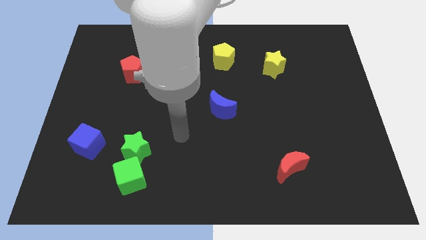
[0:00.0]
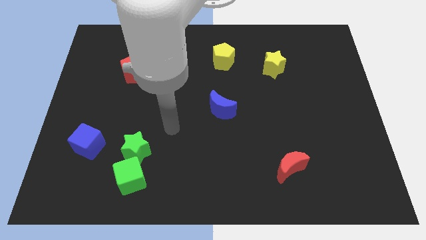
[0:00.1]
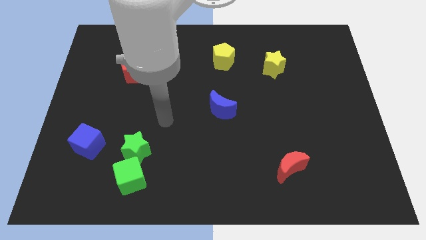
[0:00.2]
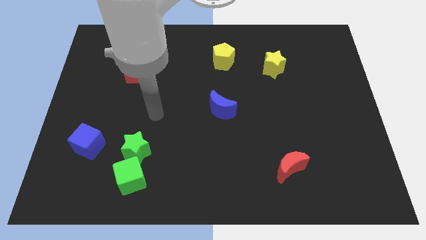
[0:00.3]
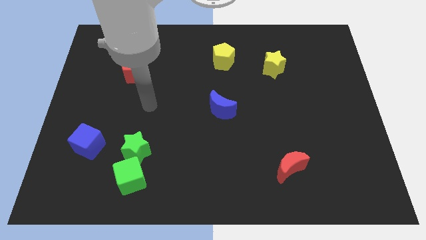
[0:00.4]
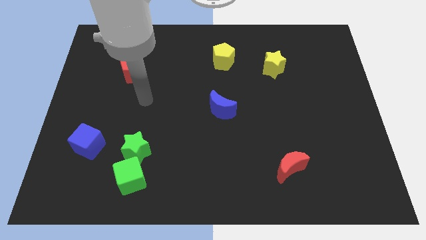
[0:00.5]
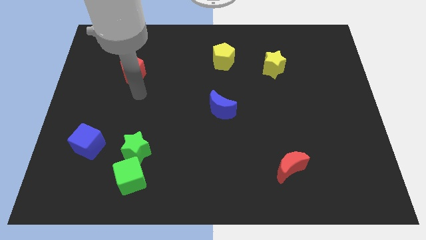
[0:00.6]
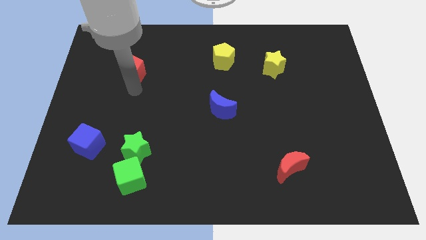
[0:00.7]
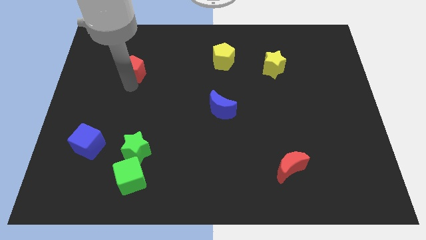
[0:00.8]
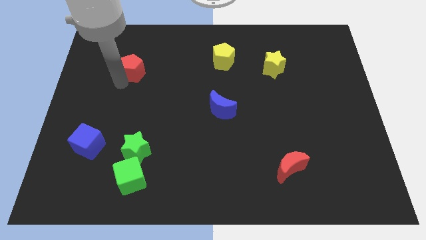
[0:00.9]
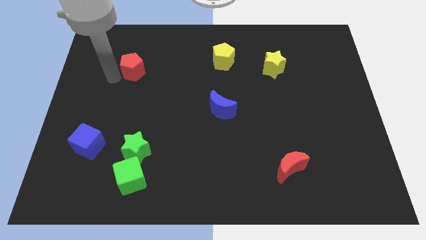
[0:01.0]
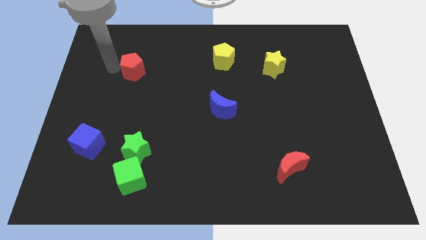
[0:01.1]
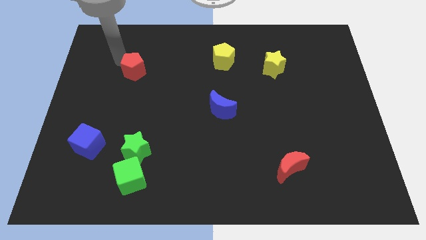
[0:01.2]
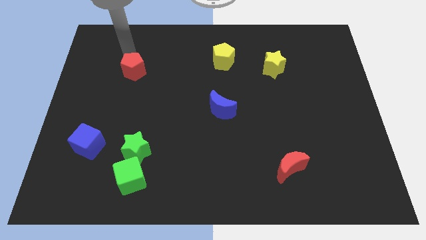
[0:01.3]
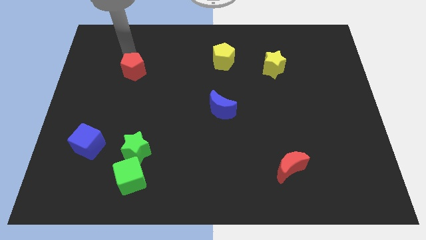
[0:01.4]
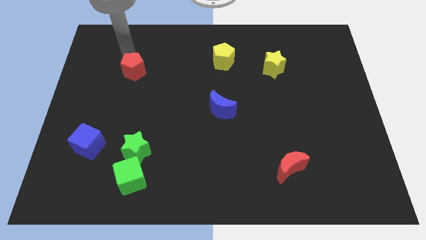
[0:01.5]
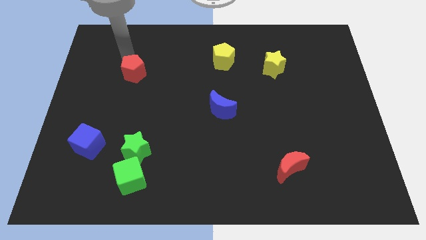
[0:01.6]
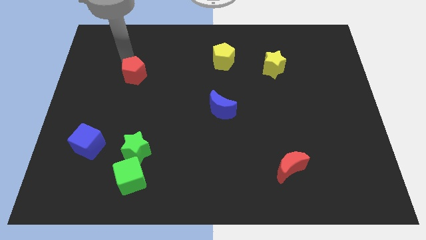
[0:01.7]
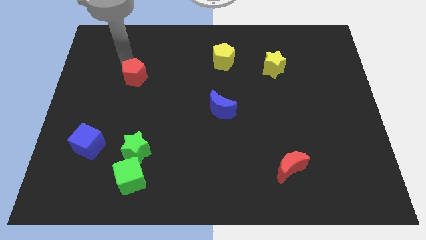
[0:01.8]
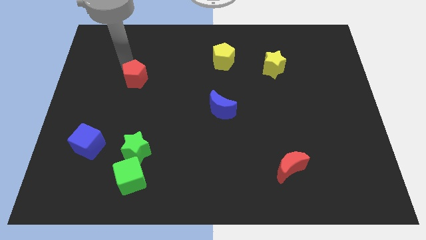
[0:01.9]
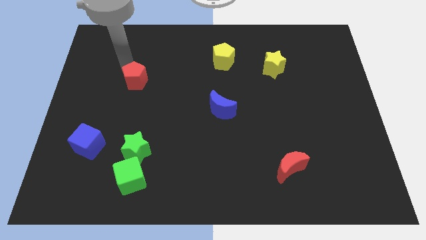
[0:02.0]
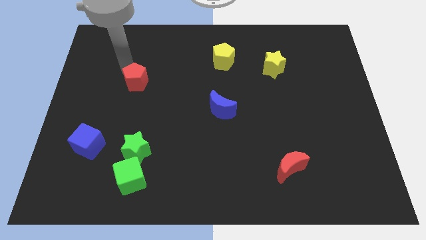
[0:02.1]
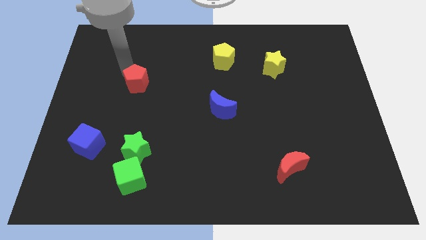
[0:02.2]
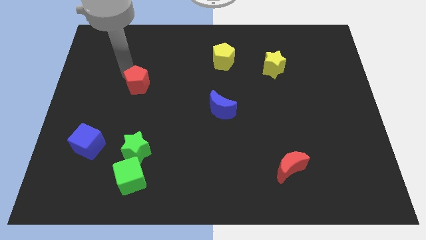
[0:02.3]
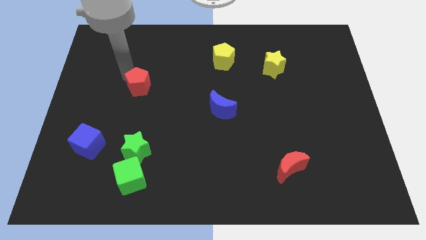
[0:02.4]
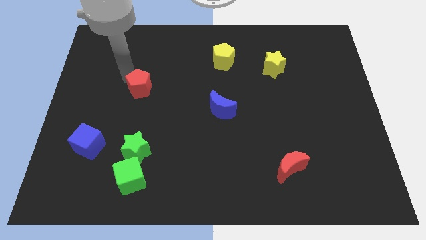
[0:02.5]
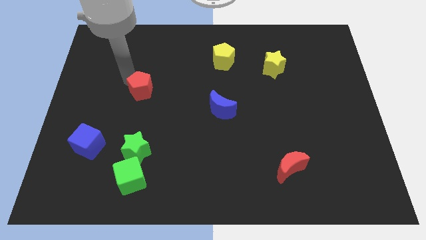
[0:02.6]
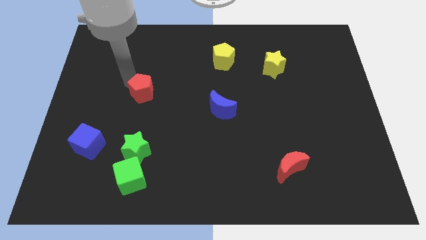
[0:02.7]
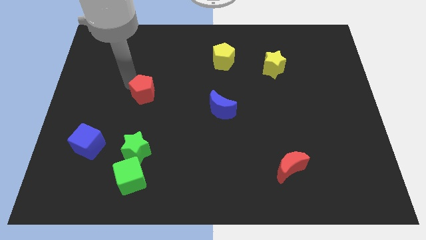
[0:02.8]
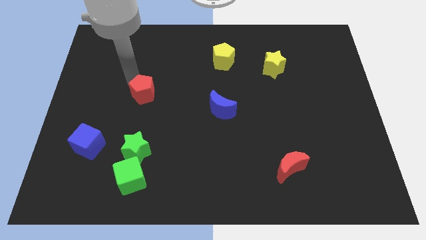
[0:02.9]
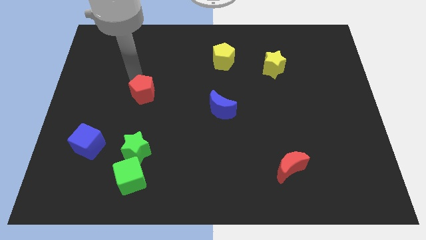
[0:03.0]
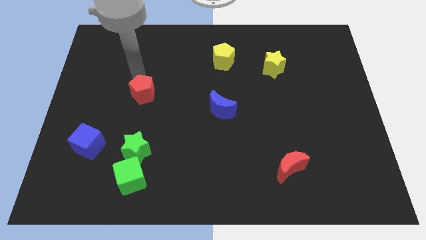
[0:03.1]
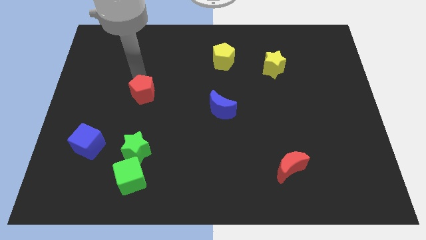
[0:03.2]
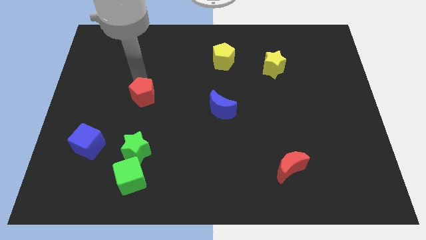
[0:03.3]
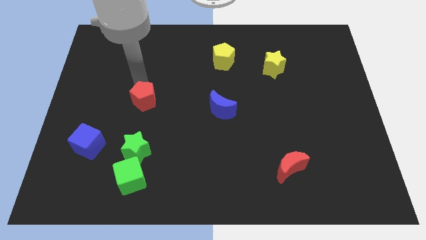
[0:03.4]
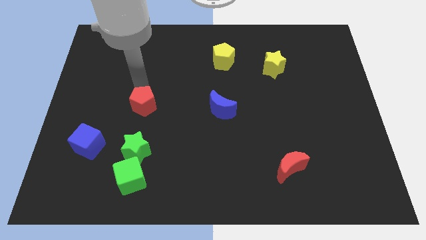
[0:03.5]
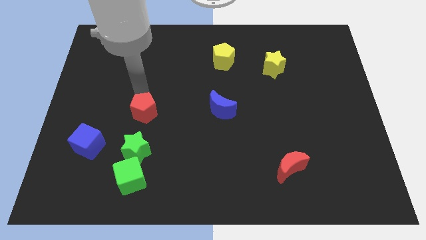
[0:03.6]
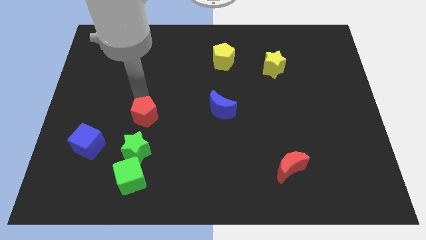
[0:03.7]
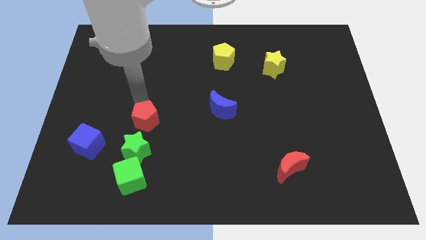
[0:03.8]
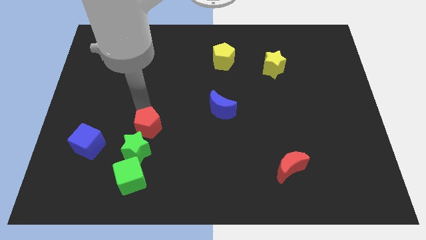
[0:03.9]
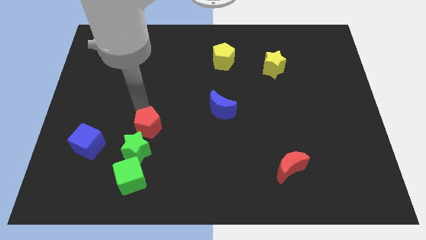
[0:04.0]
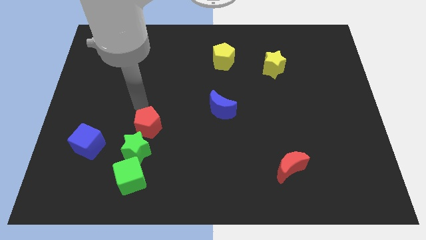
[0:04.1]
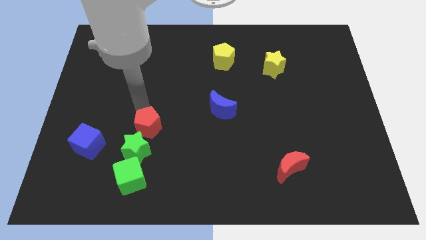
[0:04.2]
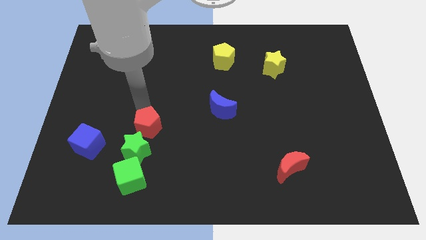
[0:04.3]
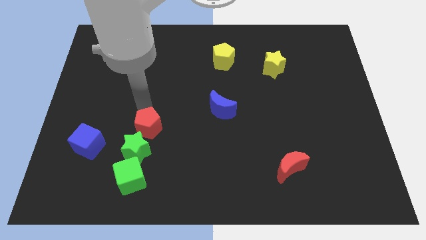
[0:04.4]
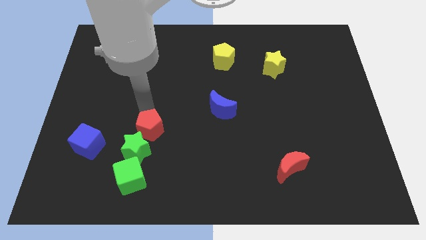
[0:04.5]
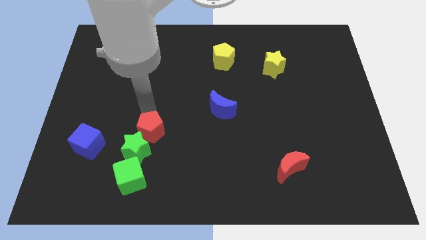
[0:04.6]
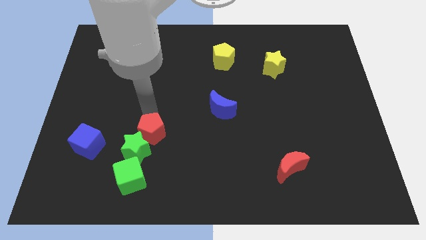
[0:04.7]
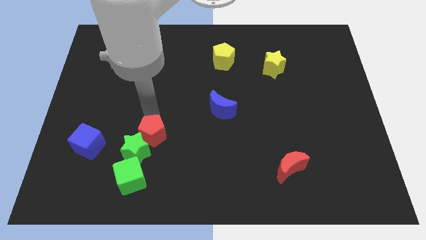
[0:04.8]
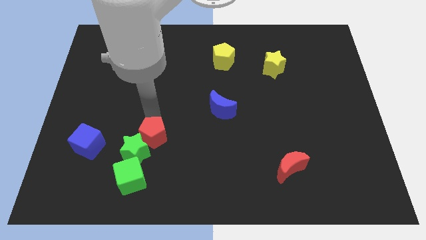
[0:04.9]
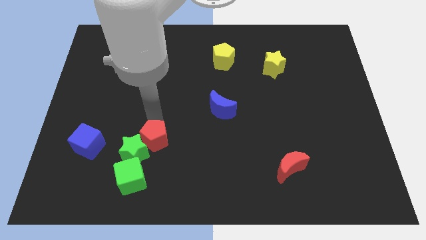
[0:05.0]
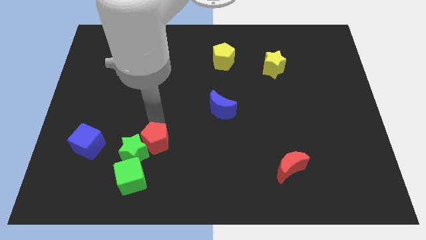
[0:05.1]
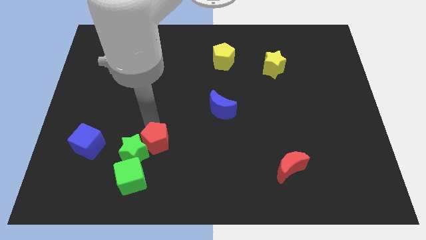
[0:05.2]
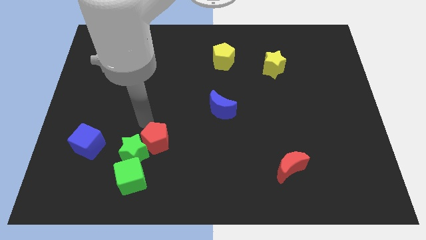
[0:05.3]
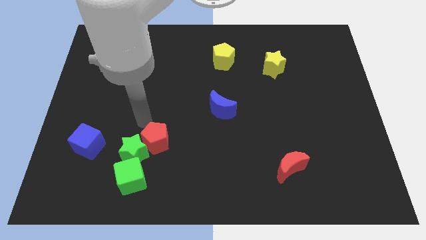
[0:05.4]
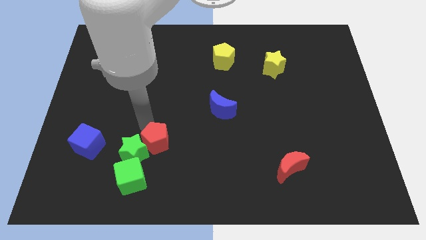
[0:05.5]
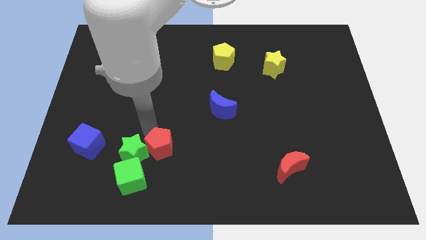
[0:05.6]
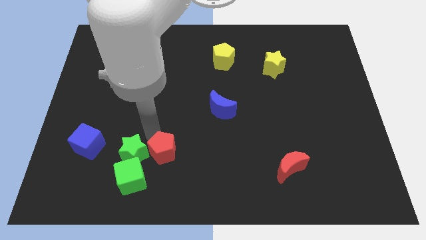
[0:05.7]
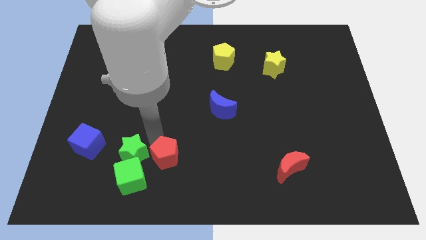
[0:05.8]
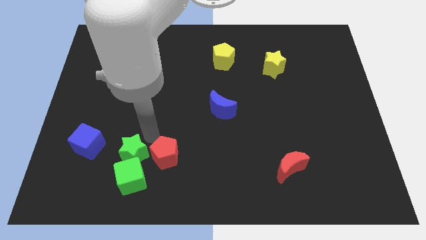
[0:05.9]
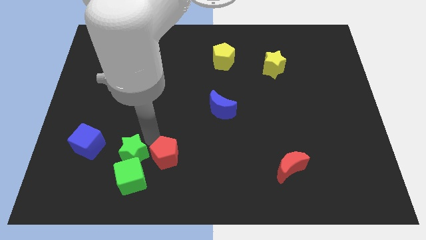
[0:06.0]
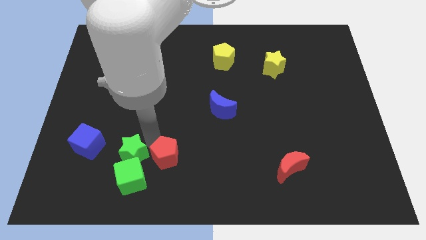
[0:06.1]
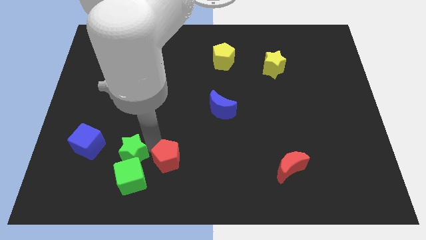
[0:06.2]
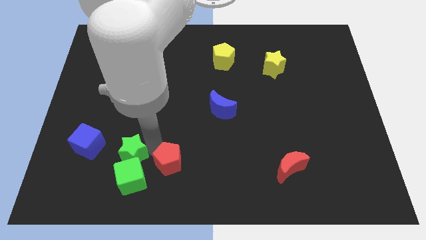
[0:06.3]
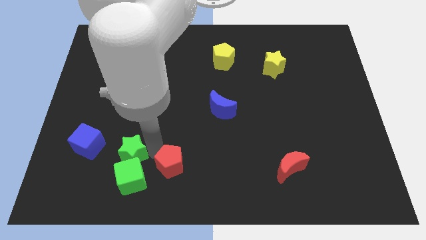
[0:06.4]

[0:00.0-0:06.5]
slide the red pentagon to the bottom
